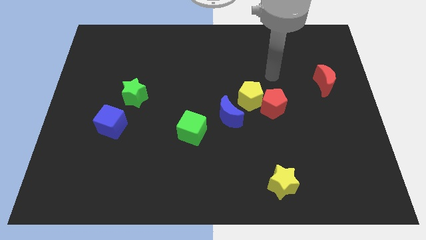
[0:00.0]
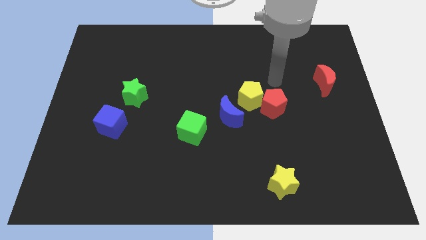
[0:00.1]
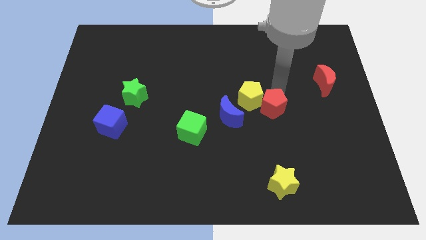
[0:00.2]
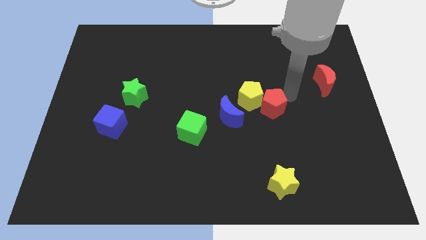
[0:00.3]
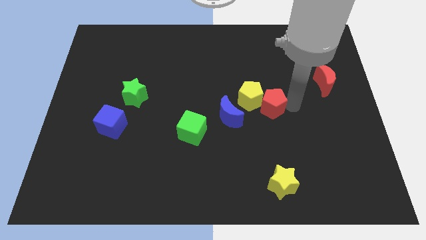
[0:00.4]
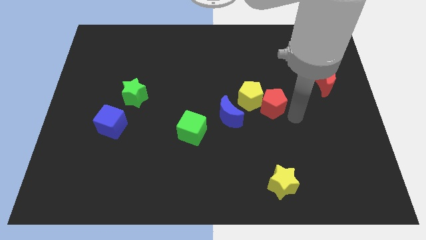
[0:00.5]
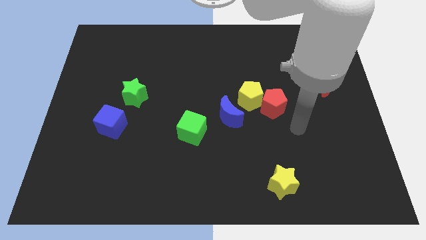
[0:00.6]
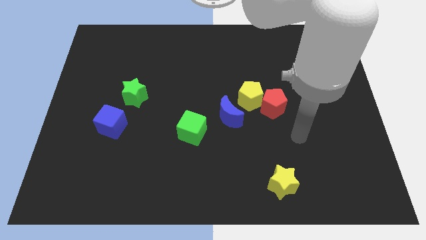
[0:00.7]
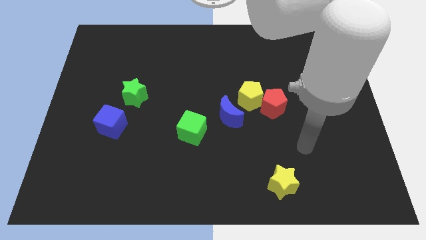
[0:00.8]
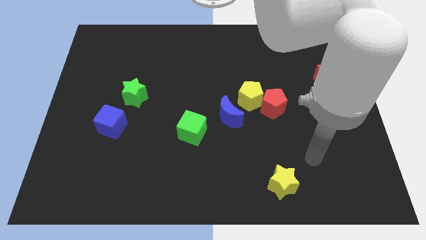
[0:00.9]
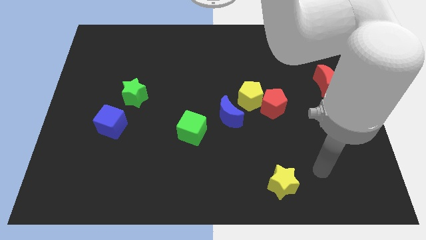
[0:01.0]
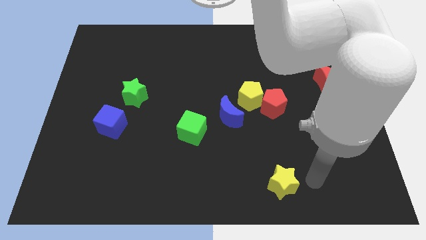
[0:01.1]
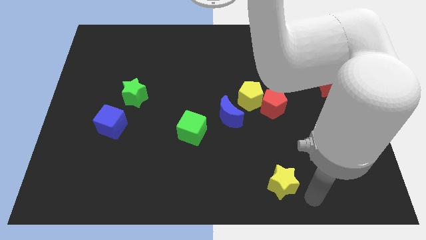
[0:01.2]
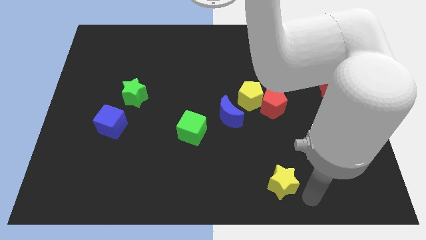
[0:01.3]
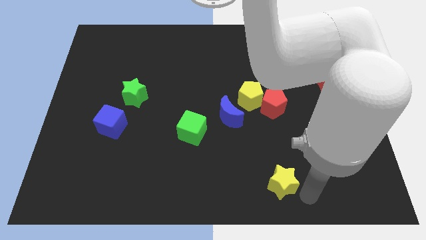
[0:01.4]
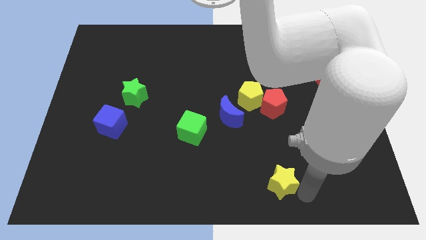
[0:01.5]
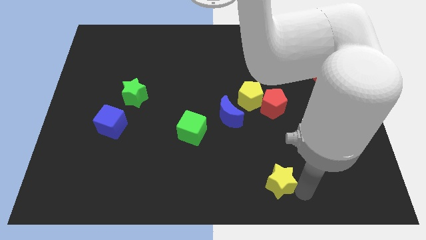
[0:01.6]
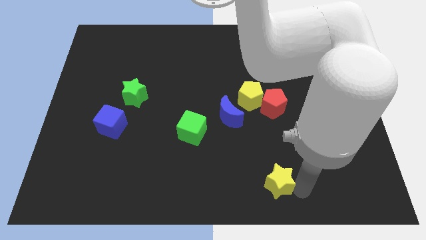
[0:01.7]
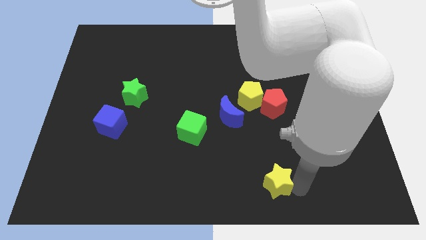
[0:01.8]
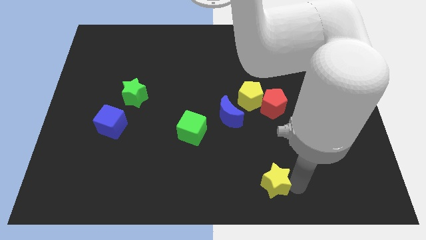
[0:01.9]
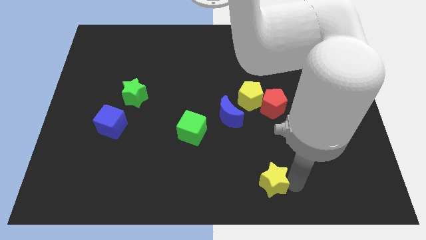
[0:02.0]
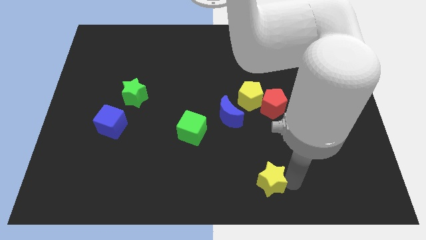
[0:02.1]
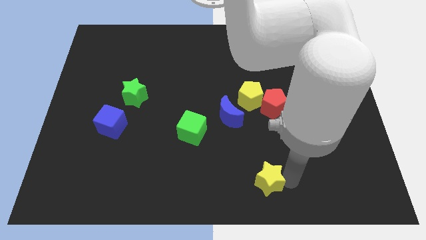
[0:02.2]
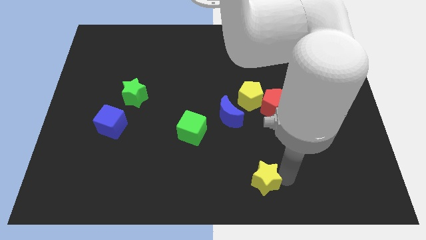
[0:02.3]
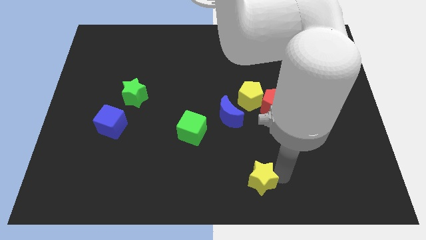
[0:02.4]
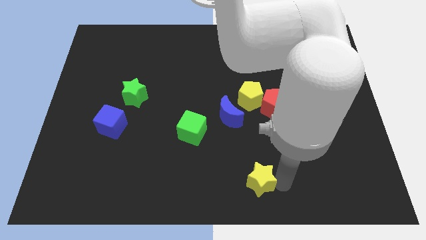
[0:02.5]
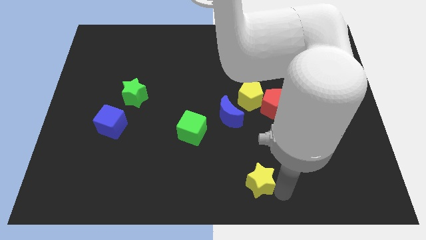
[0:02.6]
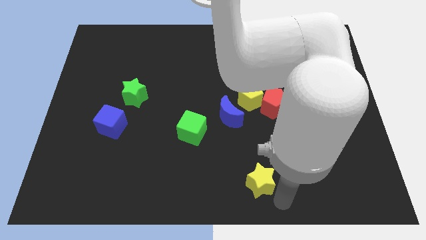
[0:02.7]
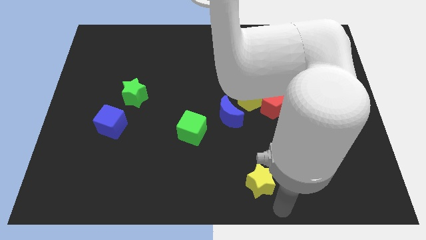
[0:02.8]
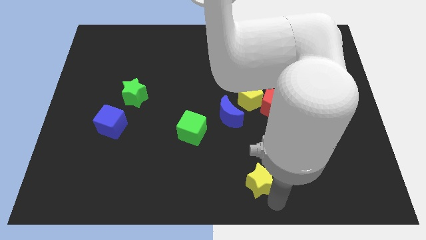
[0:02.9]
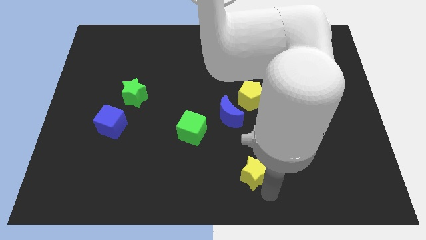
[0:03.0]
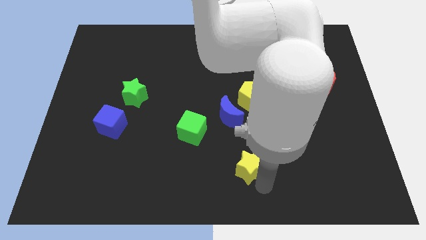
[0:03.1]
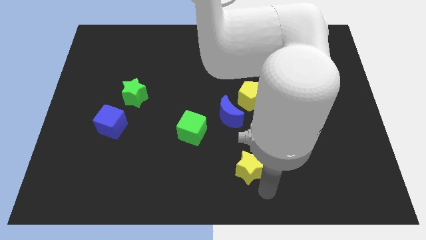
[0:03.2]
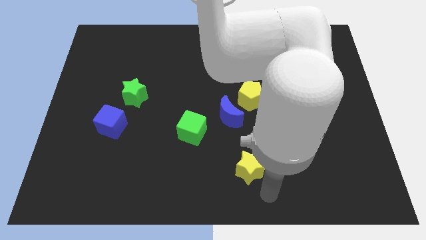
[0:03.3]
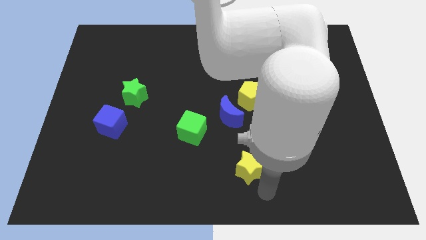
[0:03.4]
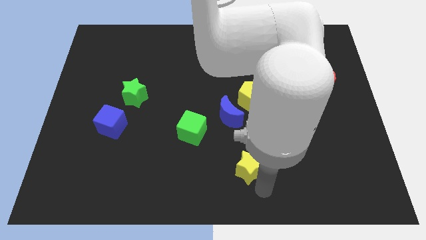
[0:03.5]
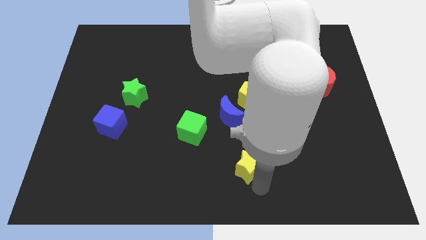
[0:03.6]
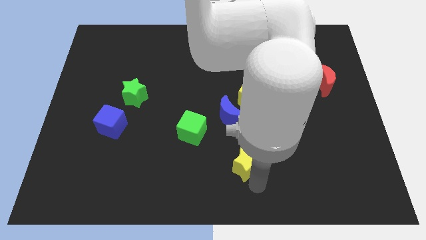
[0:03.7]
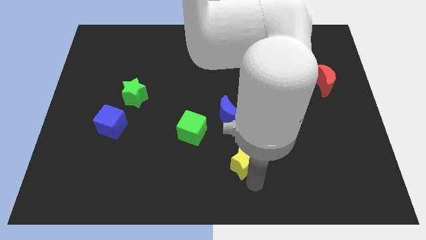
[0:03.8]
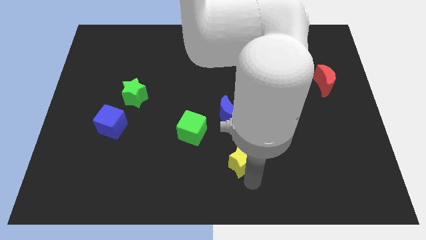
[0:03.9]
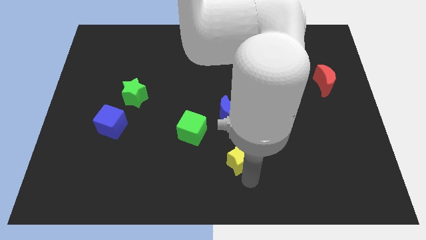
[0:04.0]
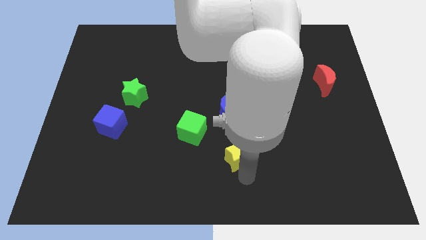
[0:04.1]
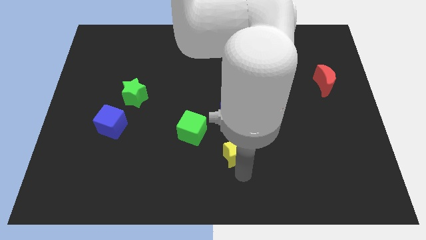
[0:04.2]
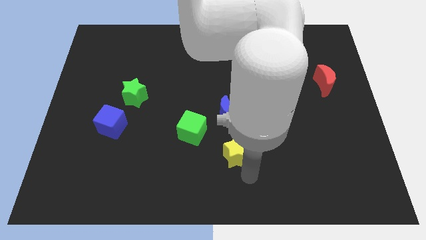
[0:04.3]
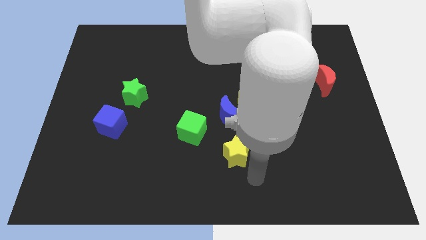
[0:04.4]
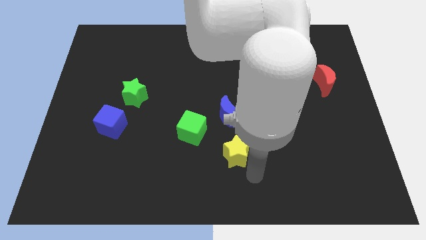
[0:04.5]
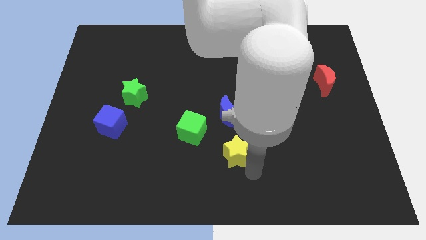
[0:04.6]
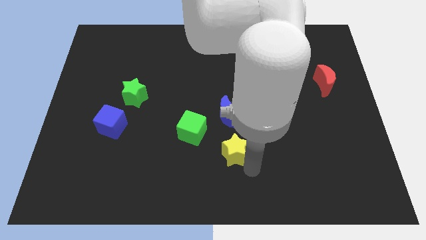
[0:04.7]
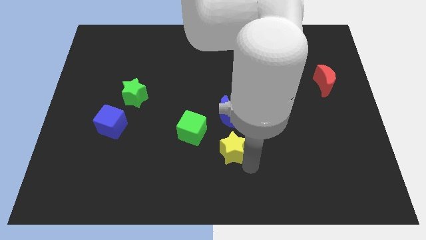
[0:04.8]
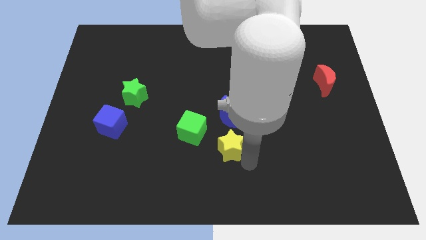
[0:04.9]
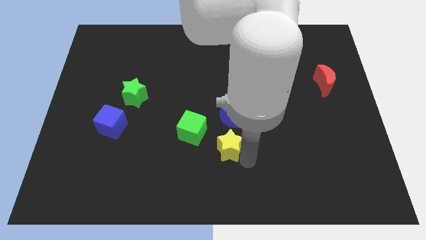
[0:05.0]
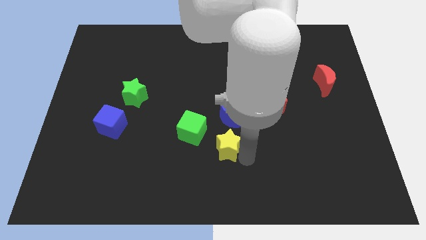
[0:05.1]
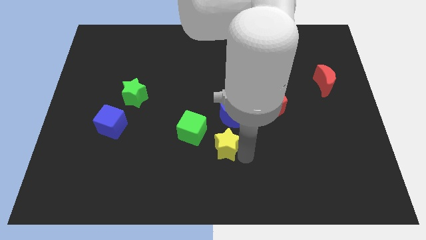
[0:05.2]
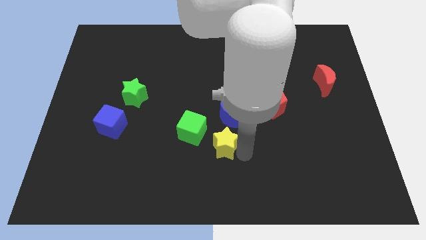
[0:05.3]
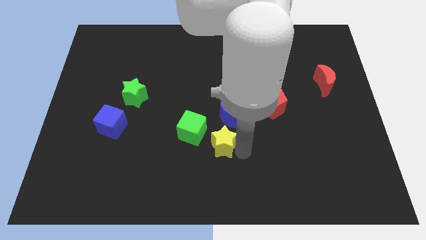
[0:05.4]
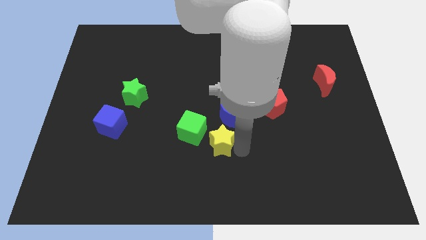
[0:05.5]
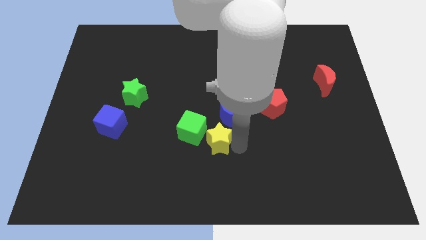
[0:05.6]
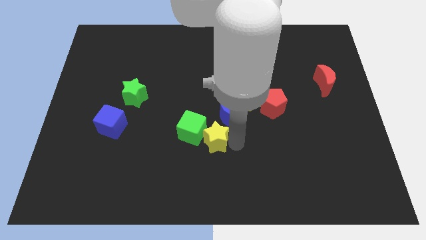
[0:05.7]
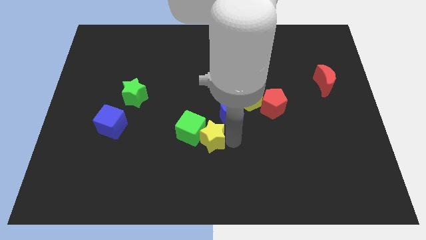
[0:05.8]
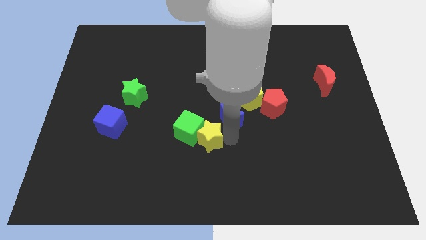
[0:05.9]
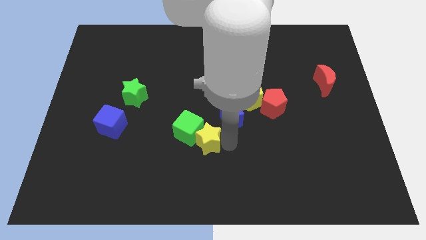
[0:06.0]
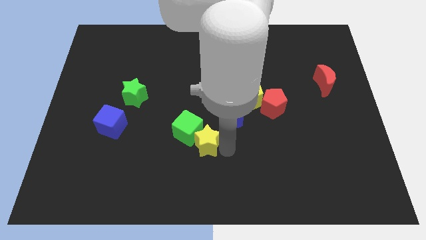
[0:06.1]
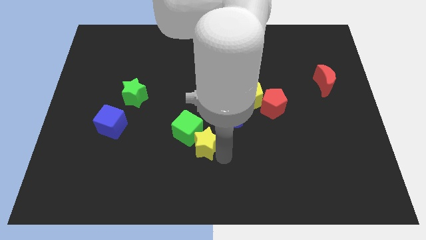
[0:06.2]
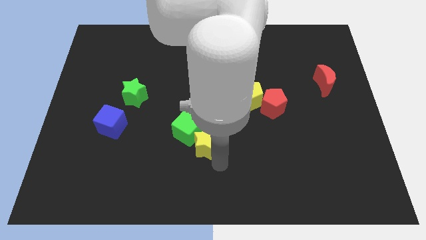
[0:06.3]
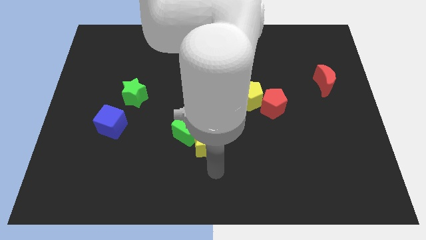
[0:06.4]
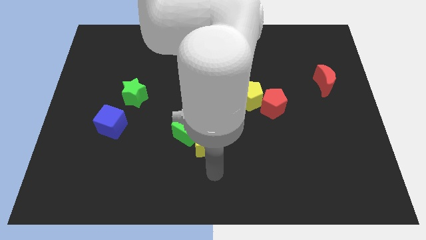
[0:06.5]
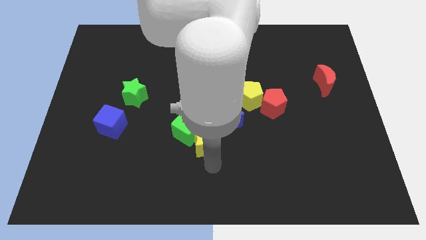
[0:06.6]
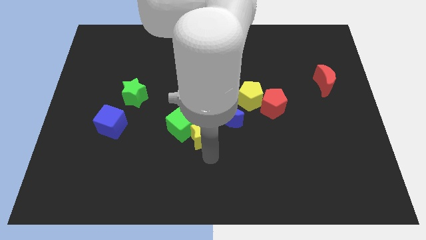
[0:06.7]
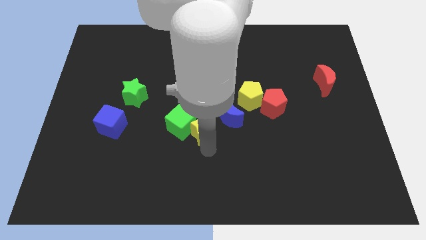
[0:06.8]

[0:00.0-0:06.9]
put the yellow star to the left side of the blue moon
